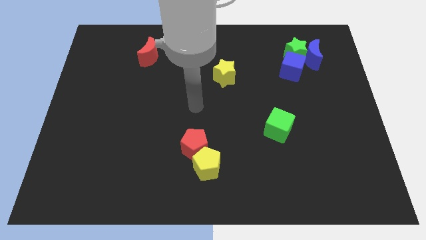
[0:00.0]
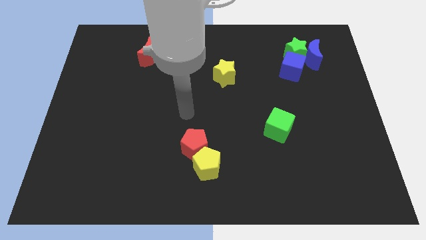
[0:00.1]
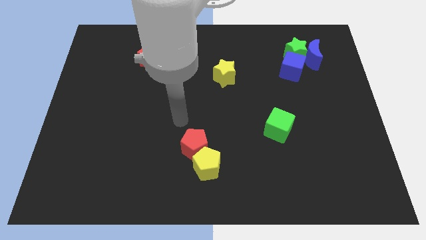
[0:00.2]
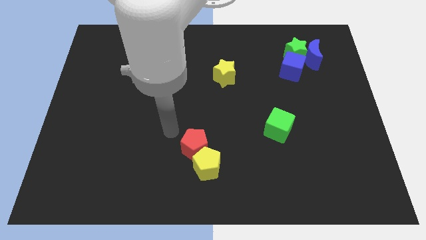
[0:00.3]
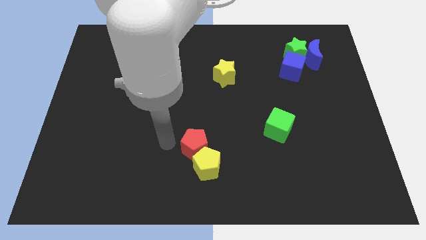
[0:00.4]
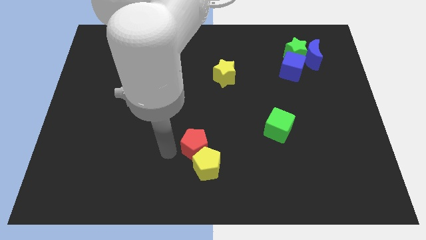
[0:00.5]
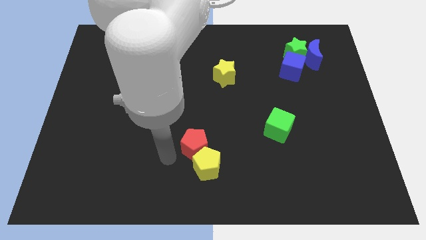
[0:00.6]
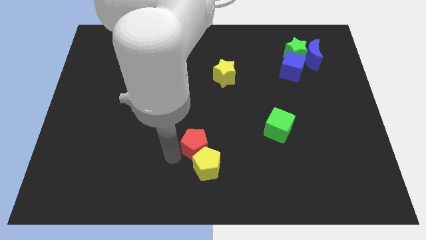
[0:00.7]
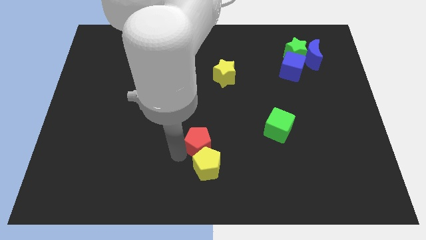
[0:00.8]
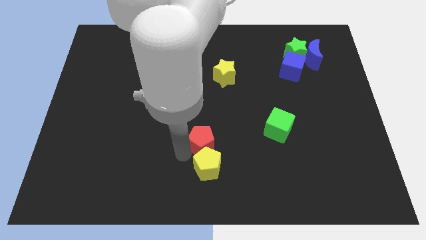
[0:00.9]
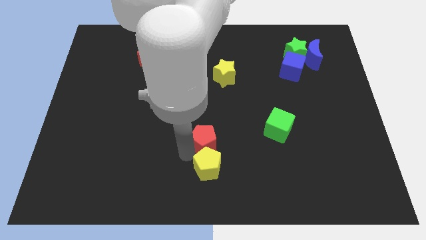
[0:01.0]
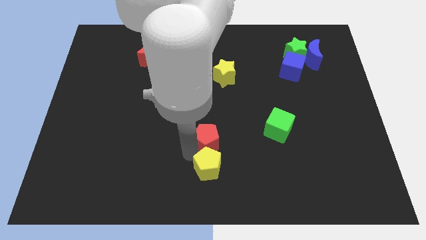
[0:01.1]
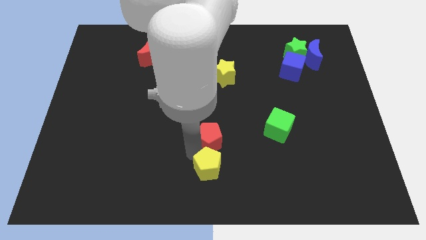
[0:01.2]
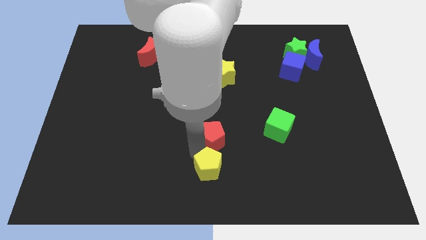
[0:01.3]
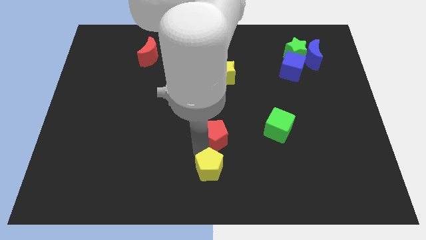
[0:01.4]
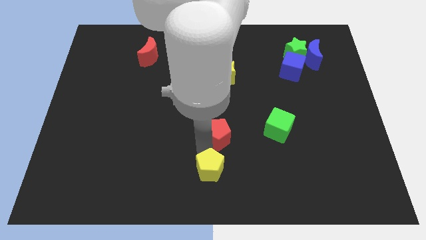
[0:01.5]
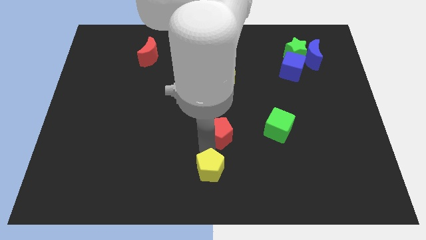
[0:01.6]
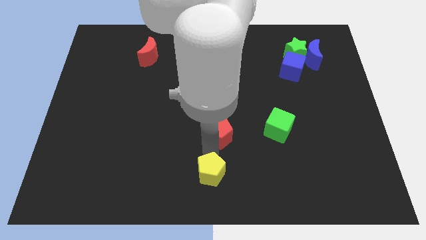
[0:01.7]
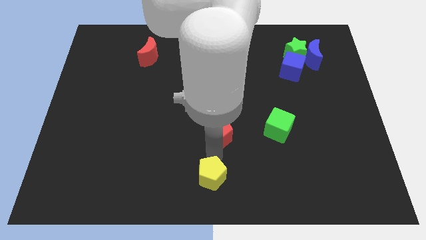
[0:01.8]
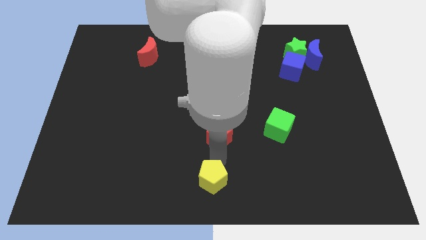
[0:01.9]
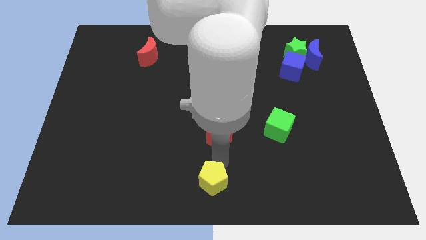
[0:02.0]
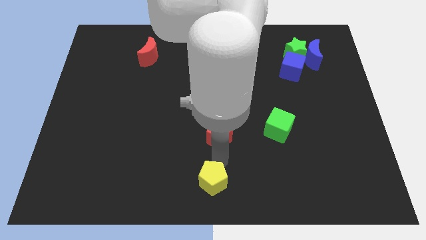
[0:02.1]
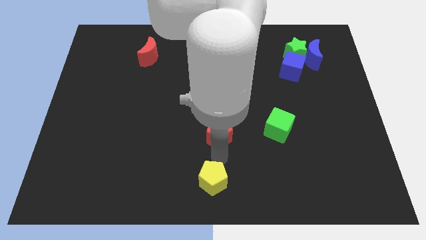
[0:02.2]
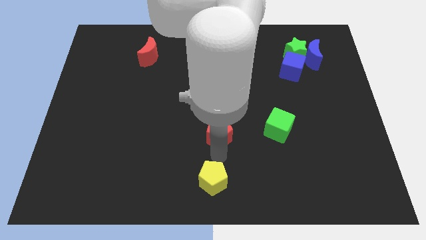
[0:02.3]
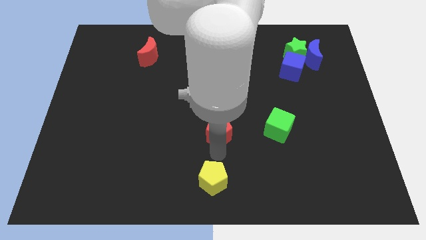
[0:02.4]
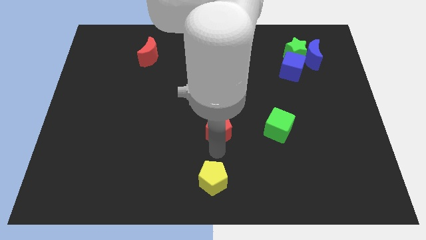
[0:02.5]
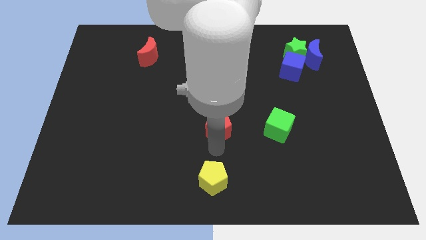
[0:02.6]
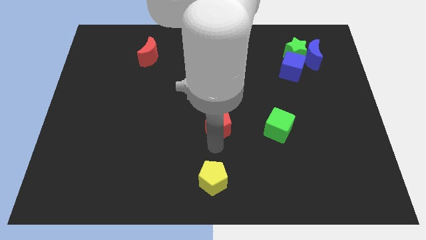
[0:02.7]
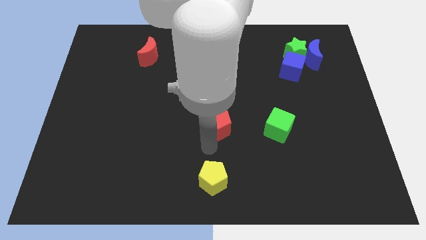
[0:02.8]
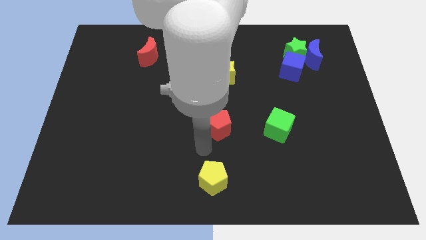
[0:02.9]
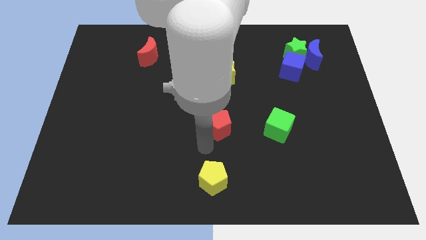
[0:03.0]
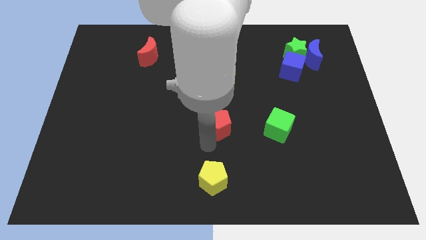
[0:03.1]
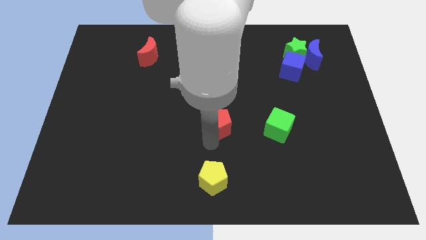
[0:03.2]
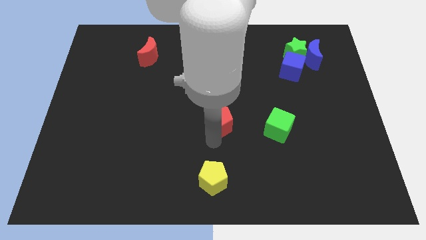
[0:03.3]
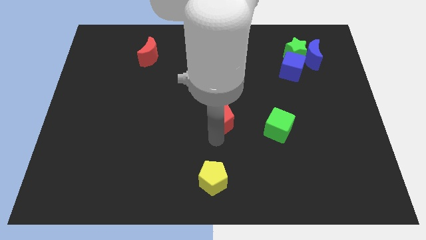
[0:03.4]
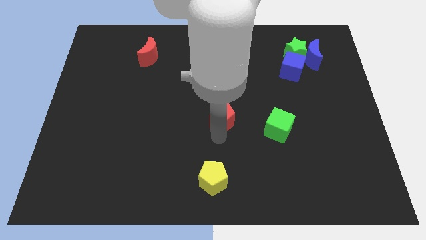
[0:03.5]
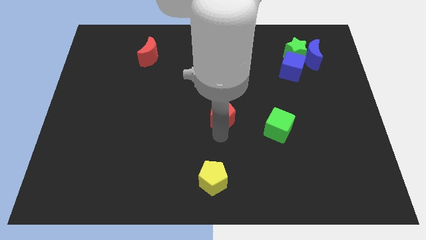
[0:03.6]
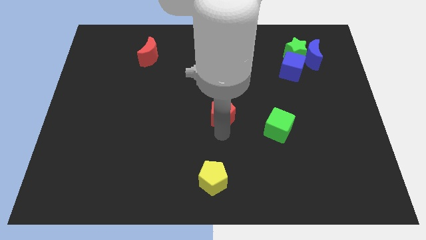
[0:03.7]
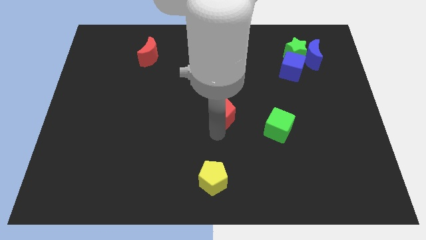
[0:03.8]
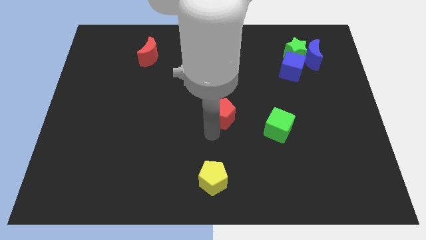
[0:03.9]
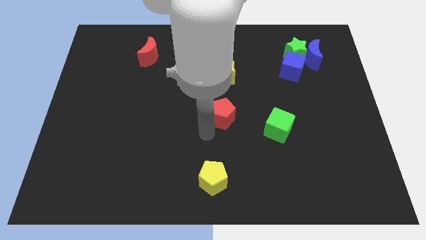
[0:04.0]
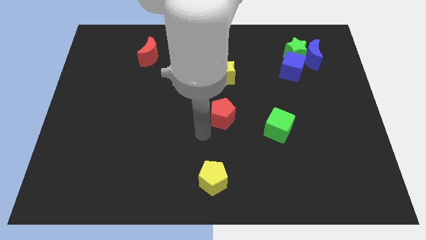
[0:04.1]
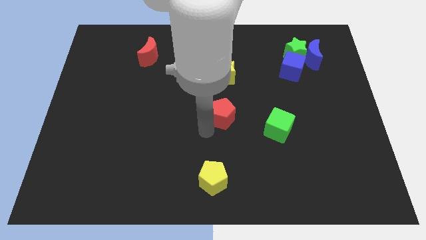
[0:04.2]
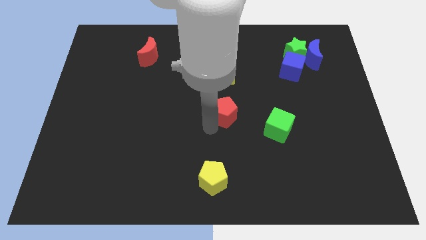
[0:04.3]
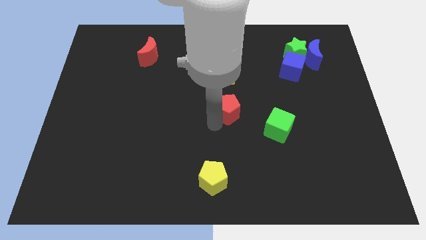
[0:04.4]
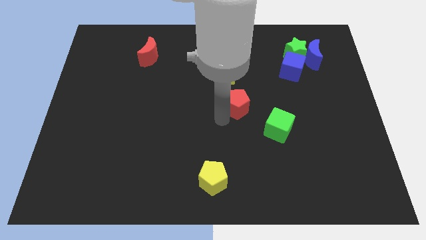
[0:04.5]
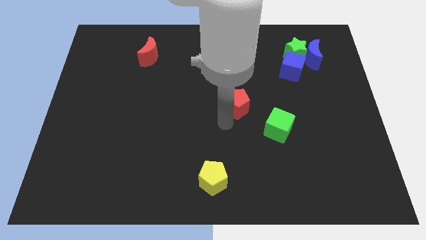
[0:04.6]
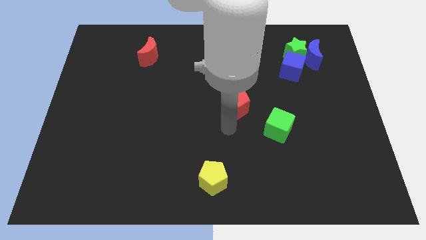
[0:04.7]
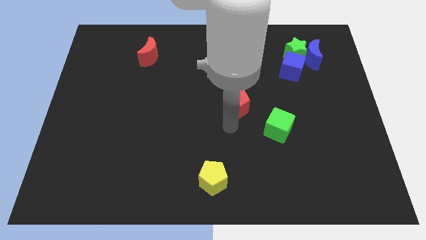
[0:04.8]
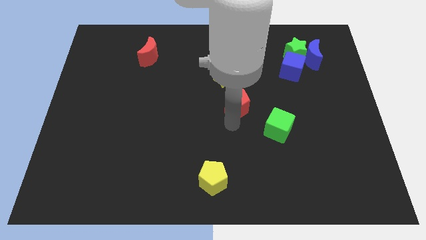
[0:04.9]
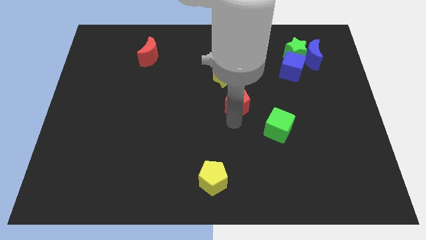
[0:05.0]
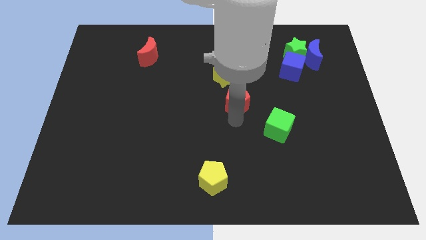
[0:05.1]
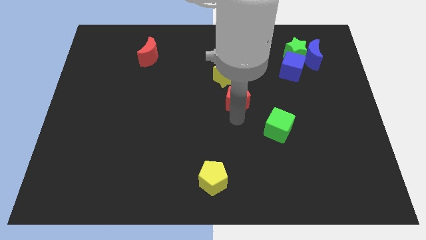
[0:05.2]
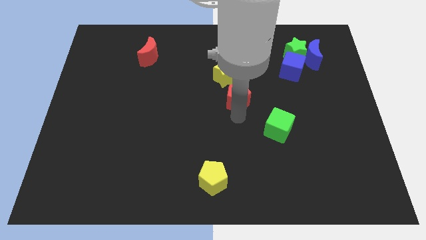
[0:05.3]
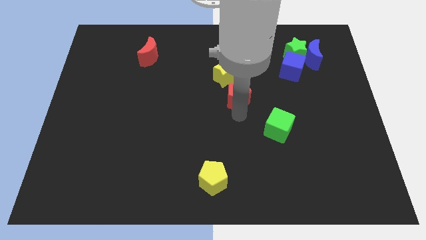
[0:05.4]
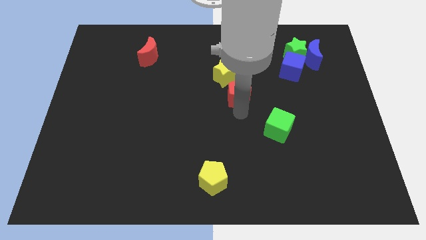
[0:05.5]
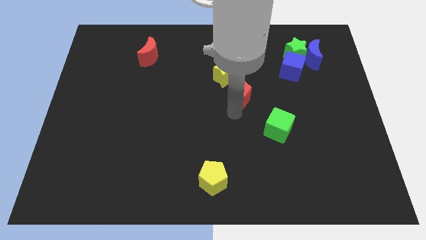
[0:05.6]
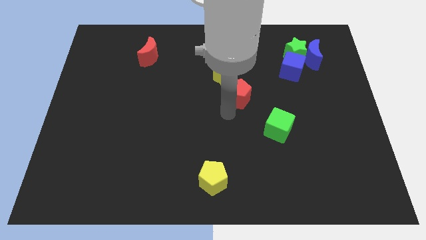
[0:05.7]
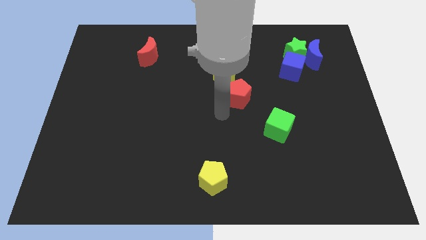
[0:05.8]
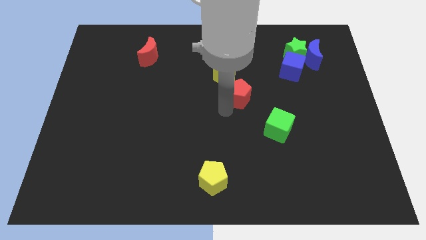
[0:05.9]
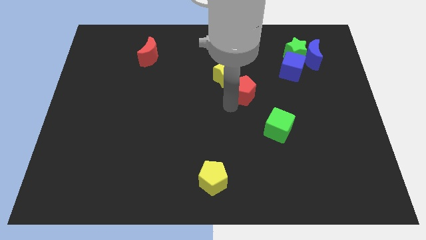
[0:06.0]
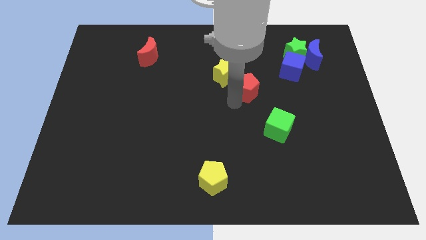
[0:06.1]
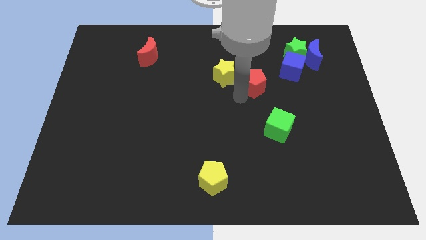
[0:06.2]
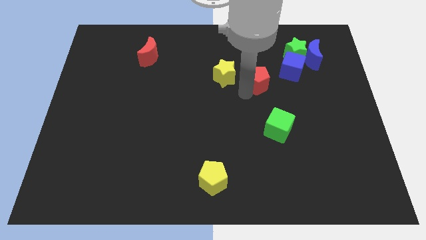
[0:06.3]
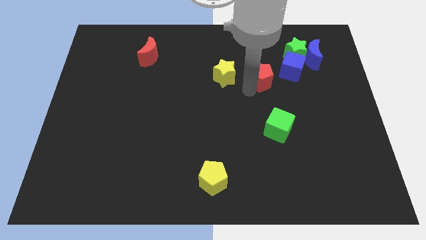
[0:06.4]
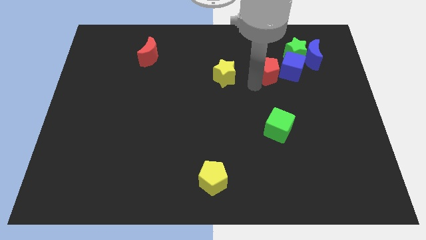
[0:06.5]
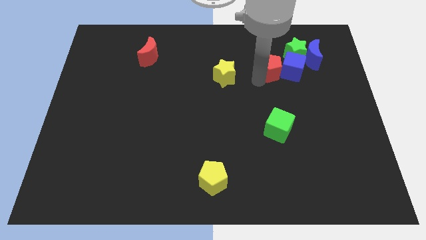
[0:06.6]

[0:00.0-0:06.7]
push the red pentagon to the blue cube
